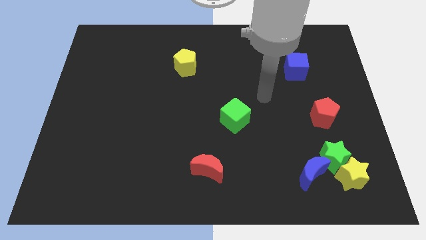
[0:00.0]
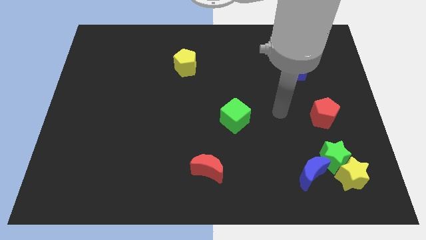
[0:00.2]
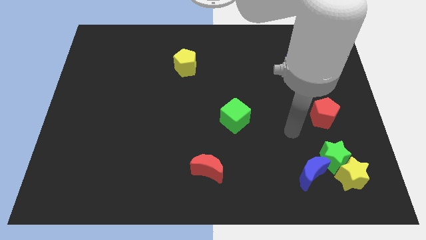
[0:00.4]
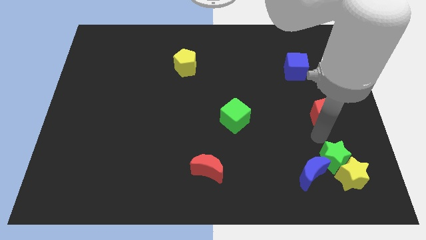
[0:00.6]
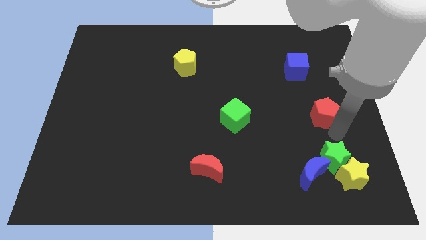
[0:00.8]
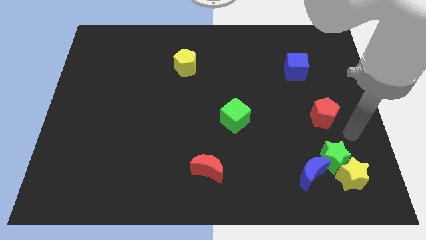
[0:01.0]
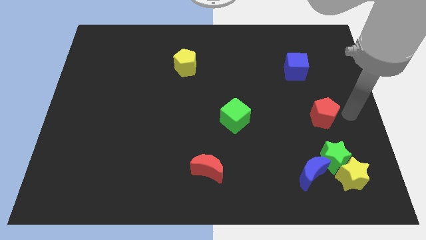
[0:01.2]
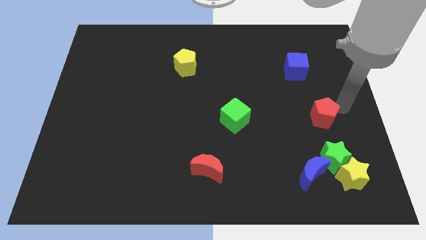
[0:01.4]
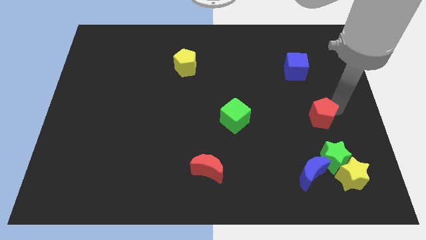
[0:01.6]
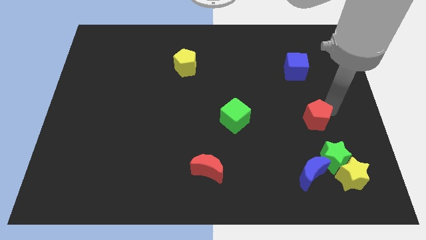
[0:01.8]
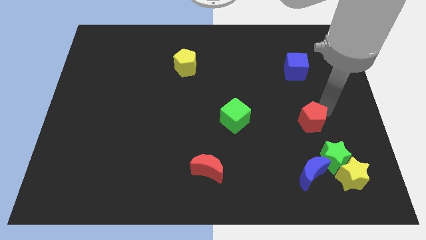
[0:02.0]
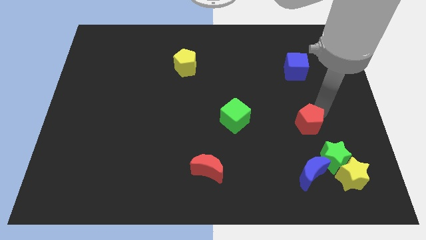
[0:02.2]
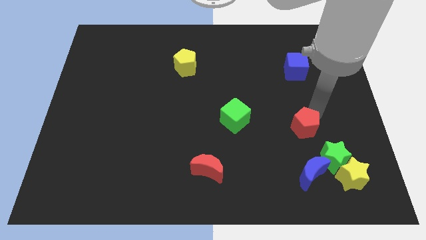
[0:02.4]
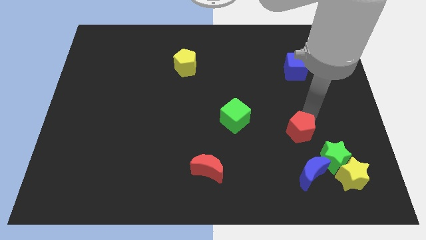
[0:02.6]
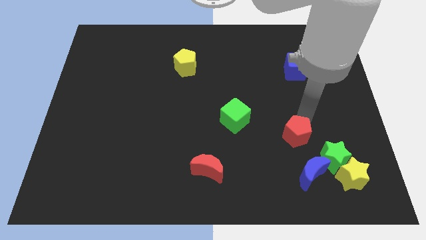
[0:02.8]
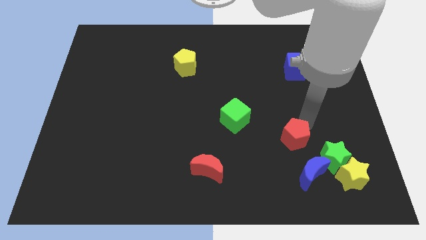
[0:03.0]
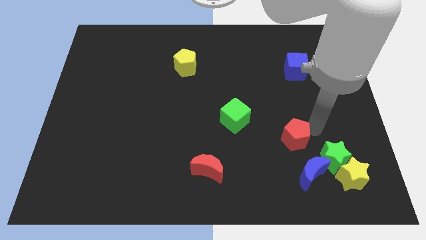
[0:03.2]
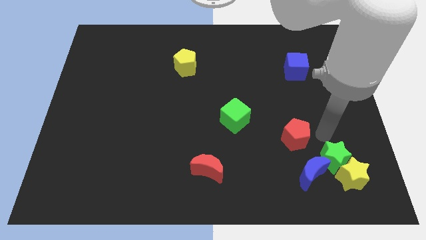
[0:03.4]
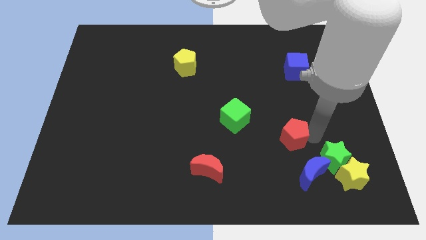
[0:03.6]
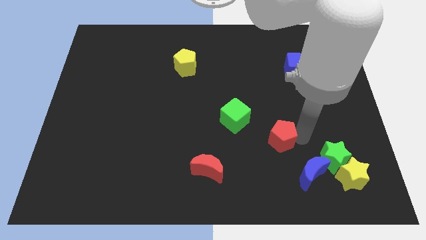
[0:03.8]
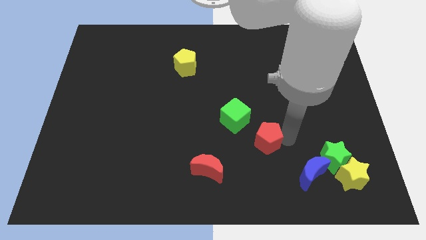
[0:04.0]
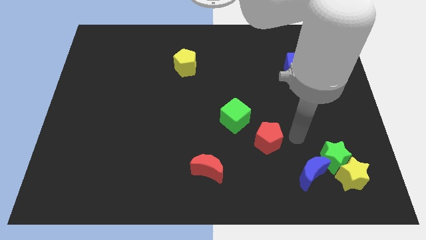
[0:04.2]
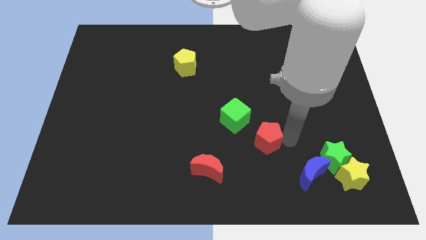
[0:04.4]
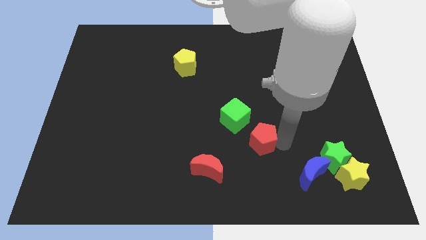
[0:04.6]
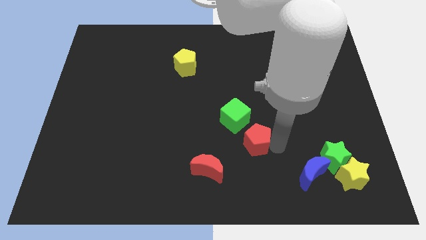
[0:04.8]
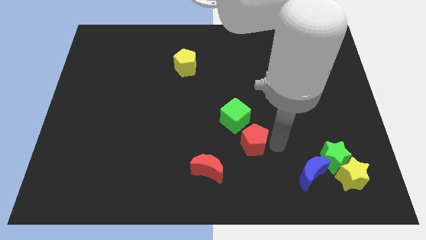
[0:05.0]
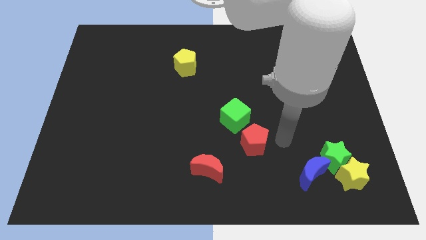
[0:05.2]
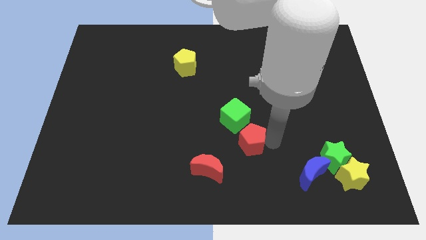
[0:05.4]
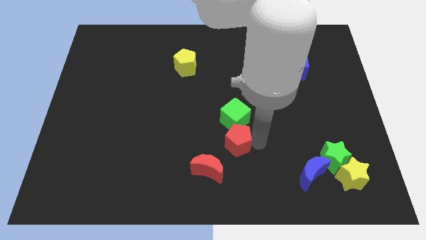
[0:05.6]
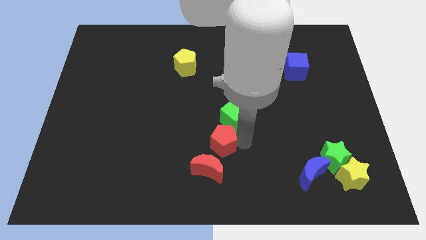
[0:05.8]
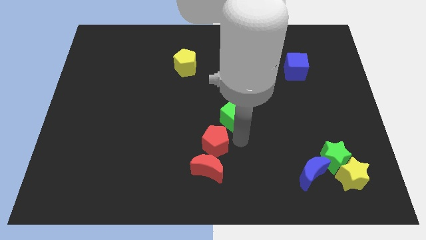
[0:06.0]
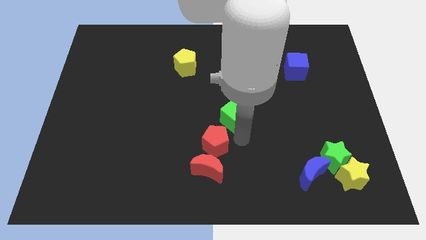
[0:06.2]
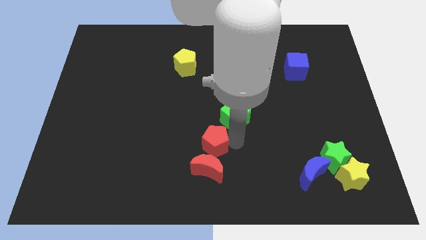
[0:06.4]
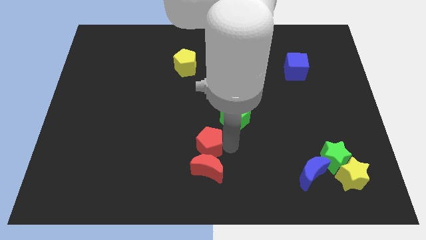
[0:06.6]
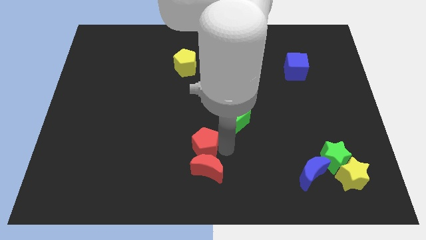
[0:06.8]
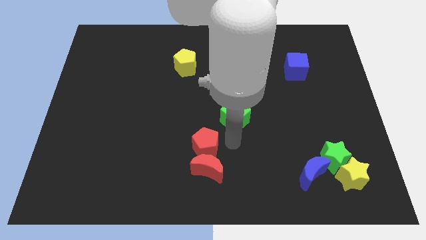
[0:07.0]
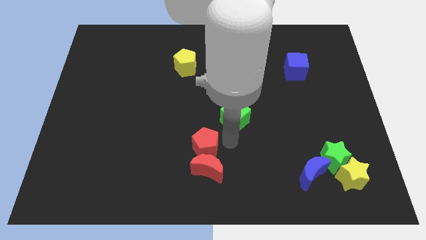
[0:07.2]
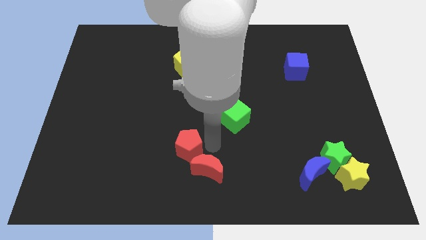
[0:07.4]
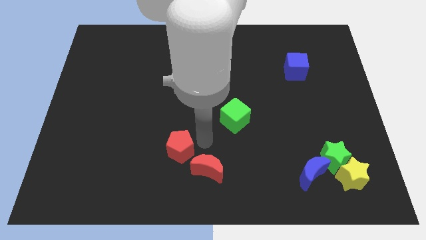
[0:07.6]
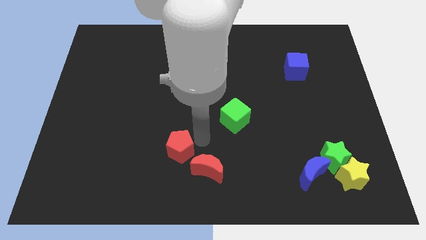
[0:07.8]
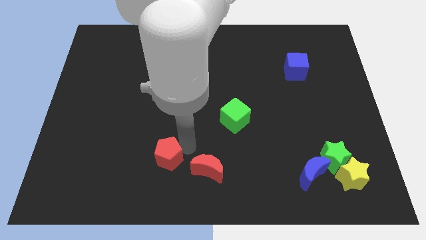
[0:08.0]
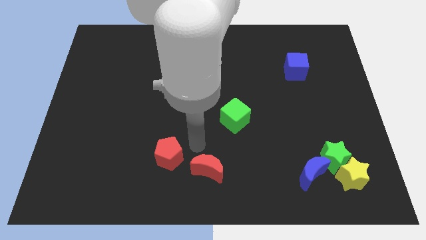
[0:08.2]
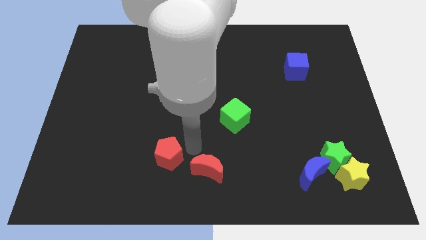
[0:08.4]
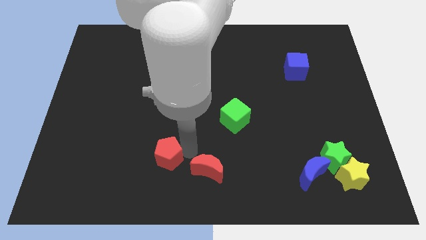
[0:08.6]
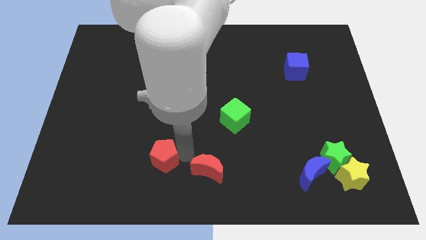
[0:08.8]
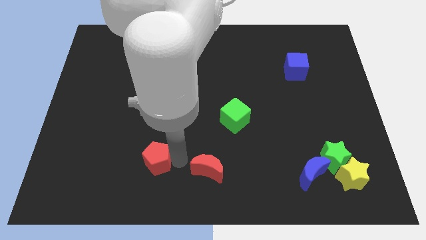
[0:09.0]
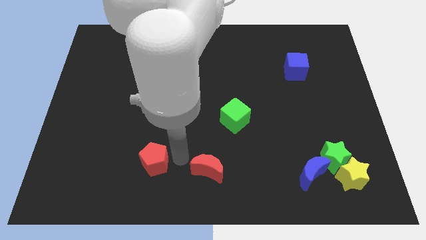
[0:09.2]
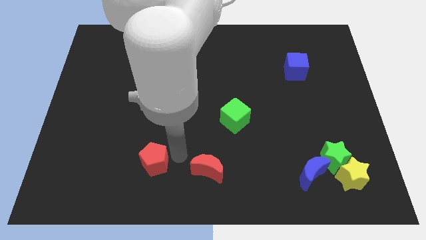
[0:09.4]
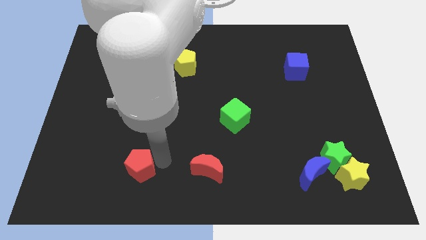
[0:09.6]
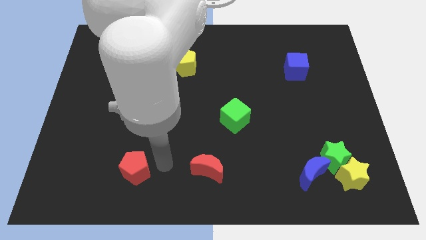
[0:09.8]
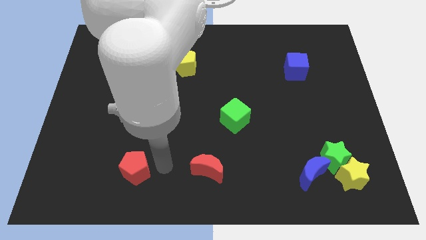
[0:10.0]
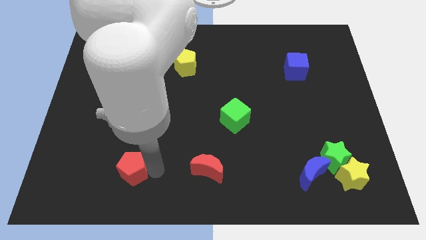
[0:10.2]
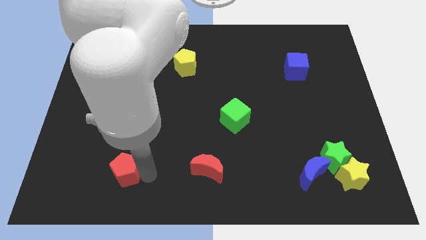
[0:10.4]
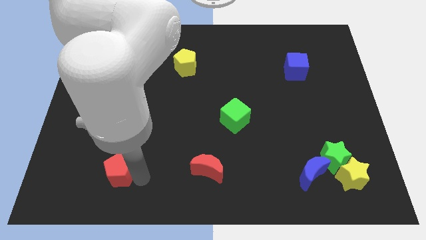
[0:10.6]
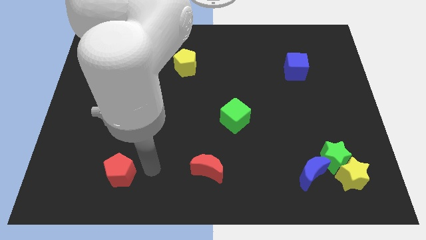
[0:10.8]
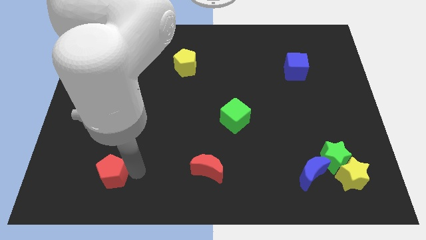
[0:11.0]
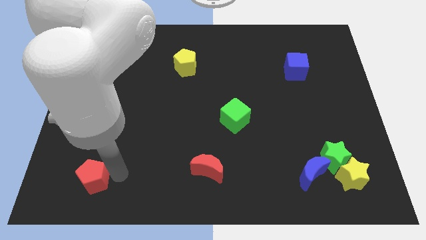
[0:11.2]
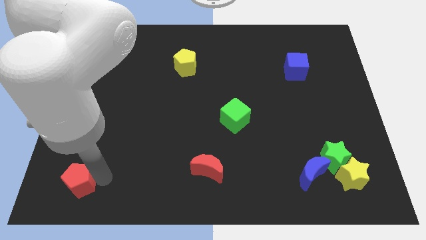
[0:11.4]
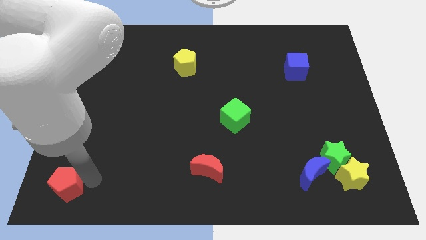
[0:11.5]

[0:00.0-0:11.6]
slide the red pentagon to the bottom left of the board
